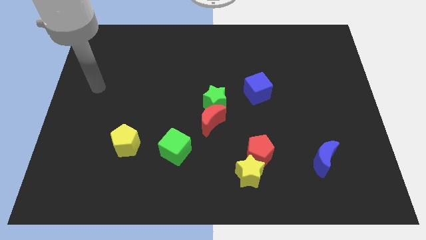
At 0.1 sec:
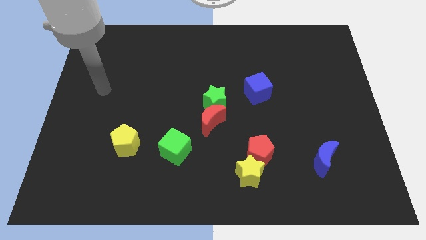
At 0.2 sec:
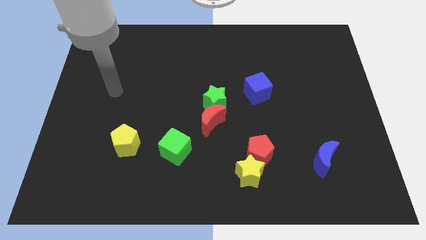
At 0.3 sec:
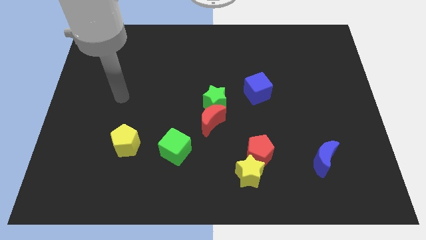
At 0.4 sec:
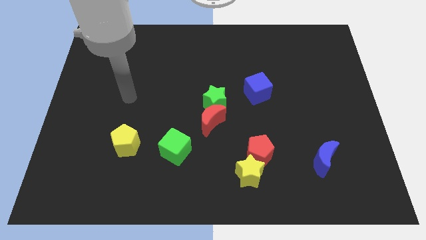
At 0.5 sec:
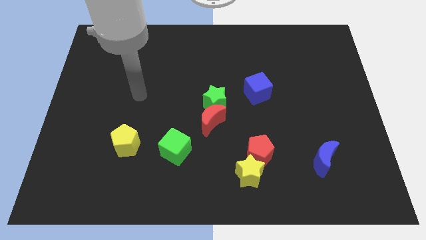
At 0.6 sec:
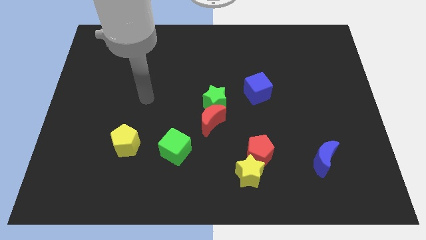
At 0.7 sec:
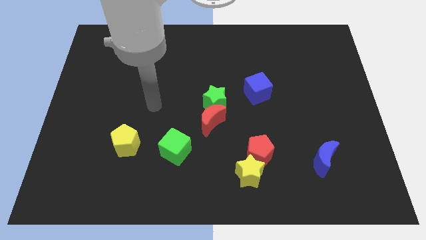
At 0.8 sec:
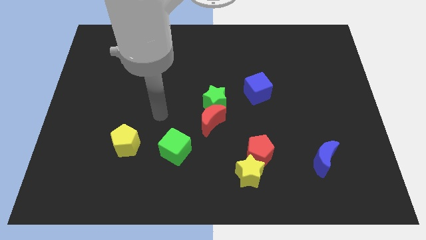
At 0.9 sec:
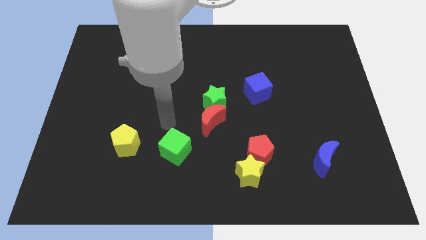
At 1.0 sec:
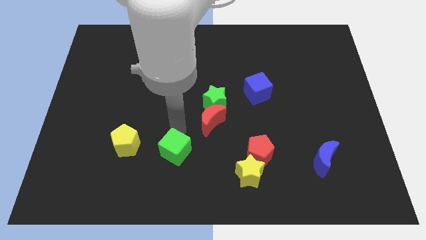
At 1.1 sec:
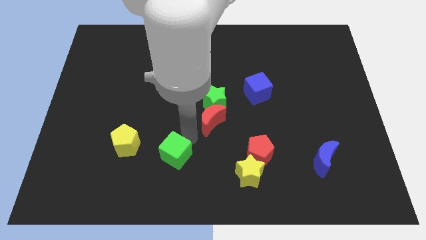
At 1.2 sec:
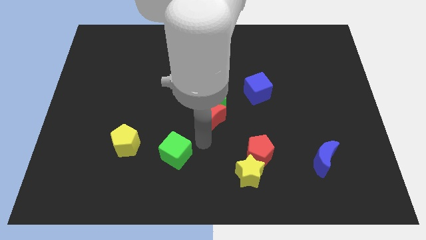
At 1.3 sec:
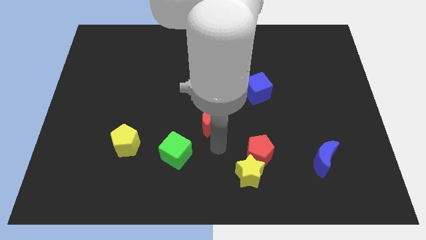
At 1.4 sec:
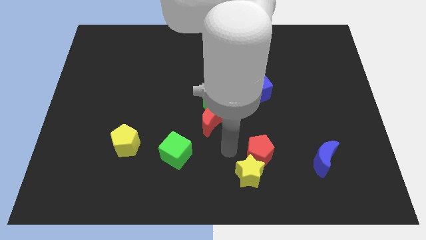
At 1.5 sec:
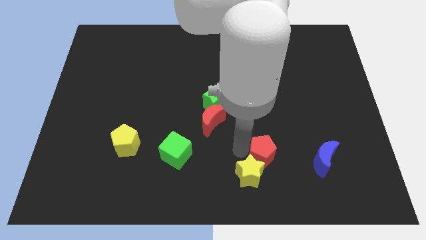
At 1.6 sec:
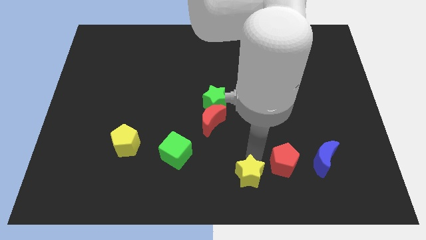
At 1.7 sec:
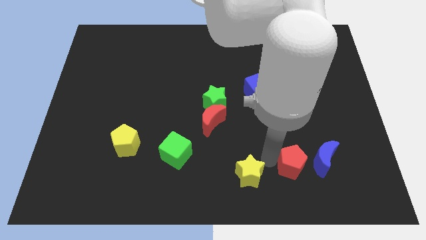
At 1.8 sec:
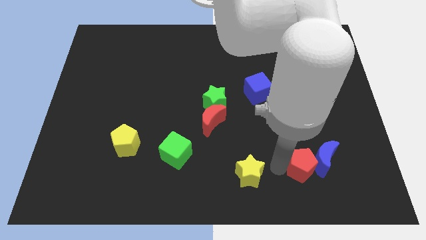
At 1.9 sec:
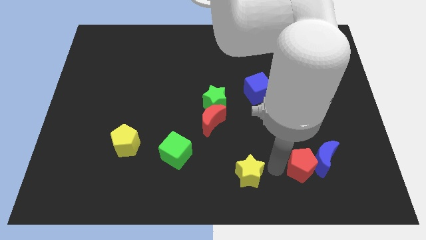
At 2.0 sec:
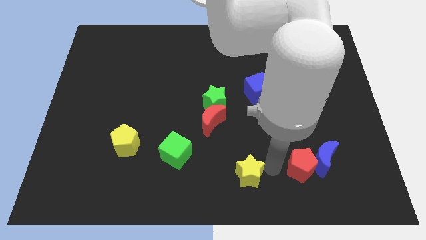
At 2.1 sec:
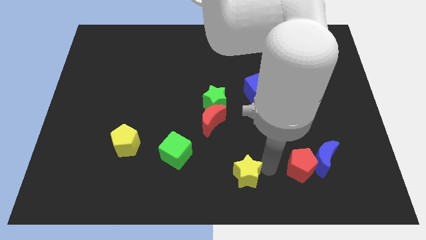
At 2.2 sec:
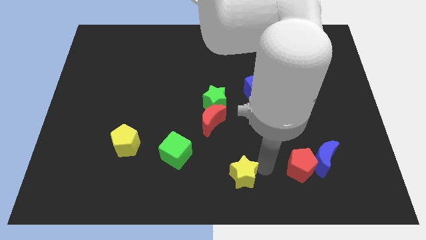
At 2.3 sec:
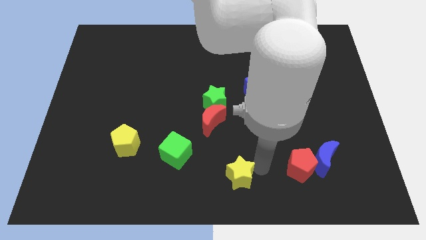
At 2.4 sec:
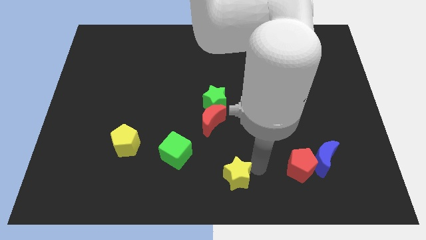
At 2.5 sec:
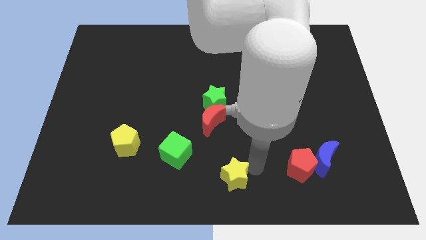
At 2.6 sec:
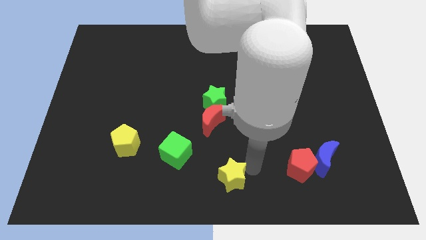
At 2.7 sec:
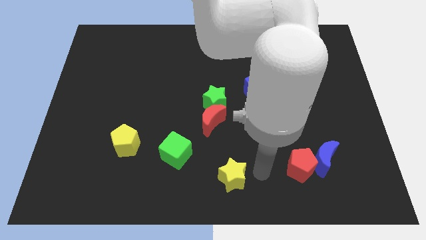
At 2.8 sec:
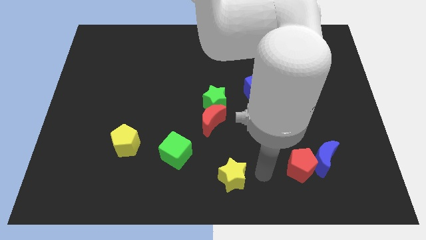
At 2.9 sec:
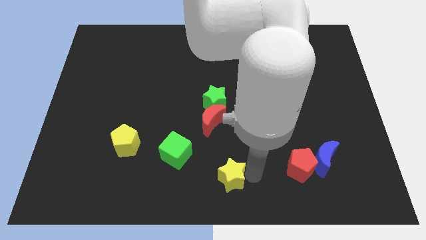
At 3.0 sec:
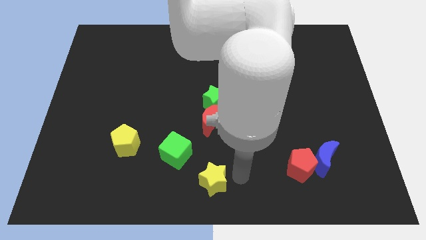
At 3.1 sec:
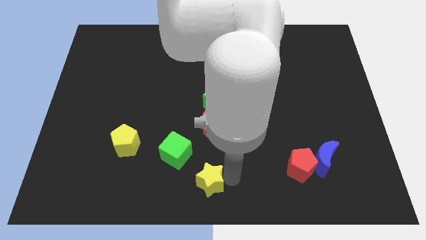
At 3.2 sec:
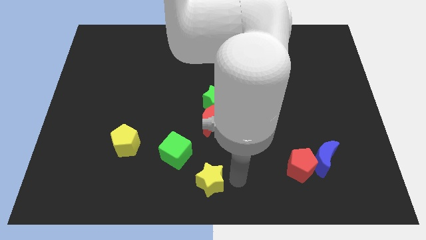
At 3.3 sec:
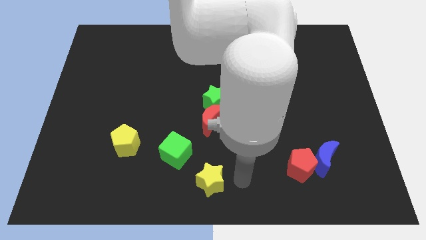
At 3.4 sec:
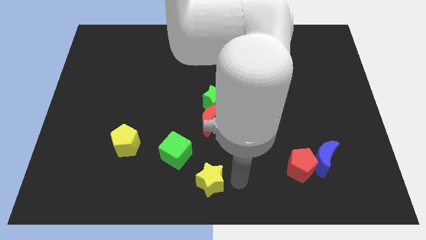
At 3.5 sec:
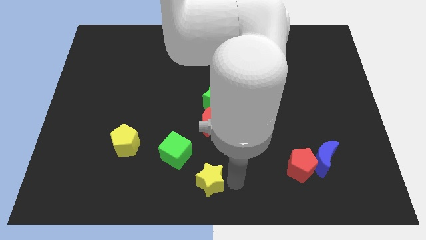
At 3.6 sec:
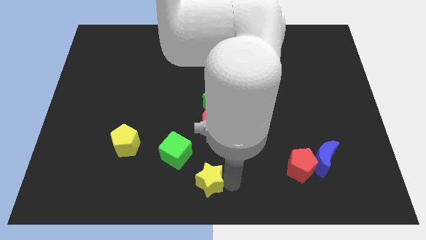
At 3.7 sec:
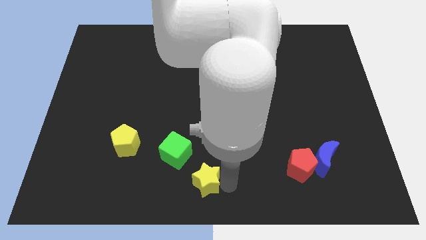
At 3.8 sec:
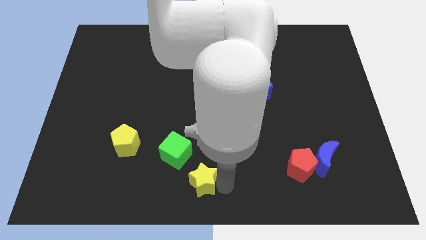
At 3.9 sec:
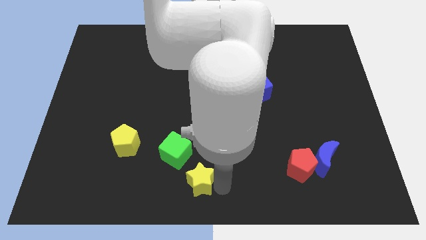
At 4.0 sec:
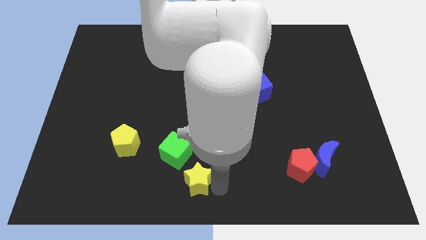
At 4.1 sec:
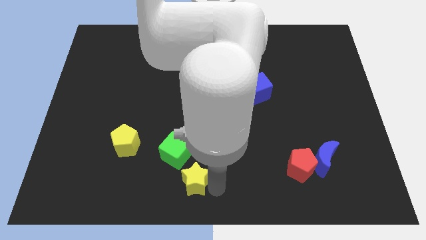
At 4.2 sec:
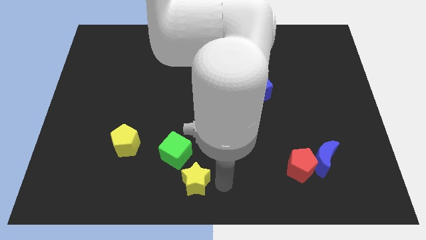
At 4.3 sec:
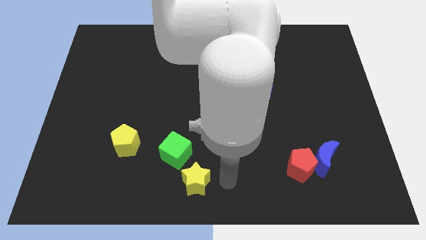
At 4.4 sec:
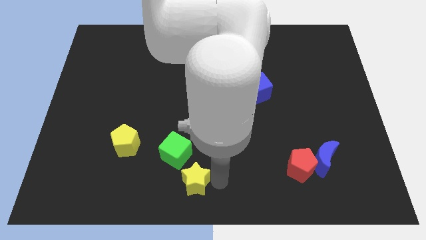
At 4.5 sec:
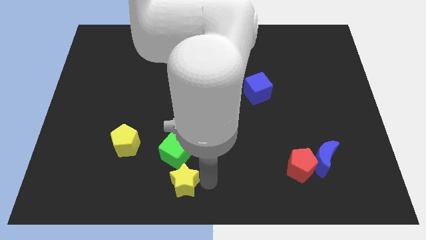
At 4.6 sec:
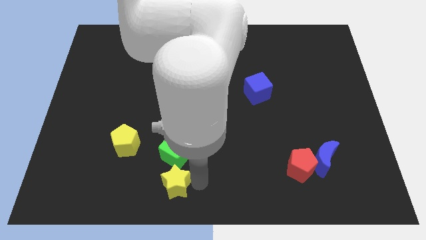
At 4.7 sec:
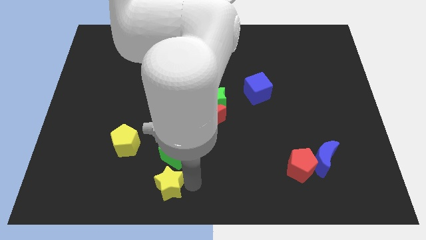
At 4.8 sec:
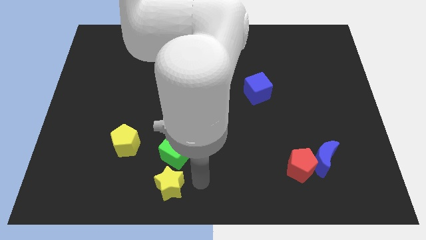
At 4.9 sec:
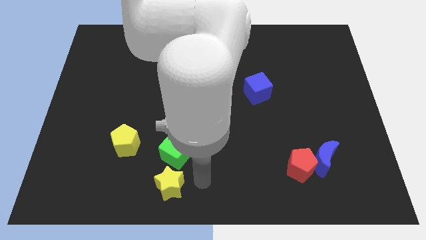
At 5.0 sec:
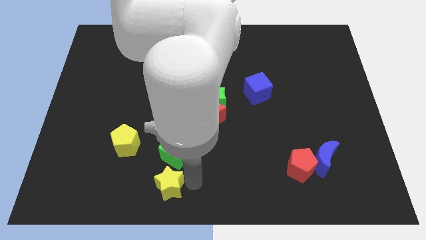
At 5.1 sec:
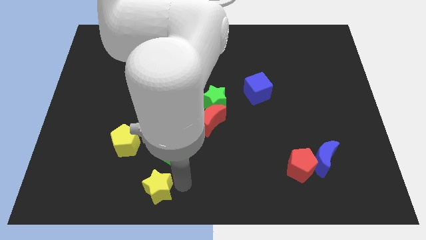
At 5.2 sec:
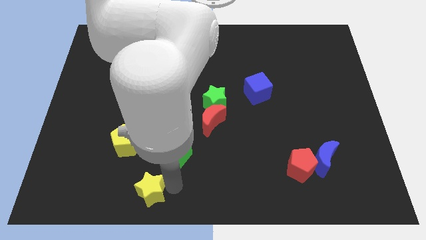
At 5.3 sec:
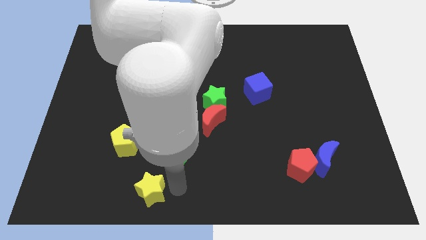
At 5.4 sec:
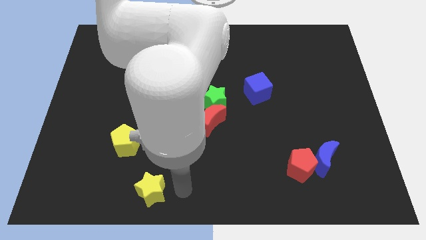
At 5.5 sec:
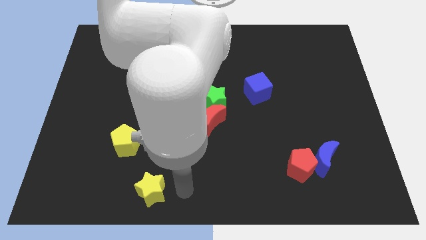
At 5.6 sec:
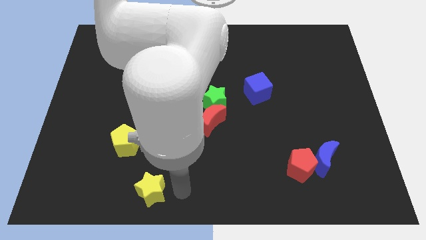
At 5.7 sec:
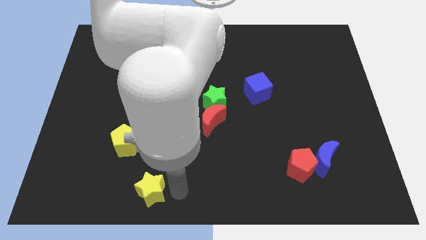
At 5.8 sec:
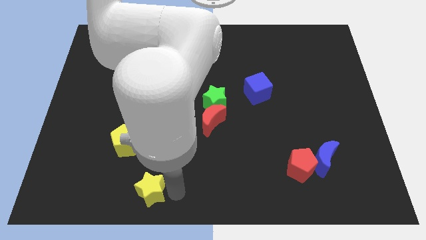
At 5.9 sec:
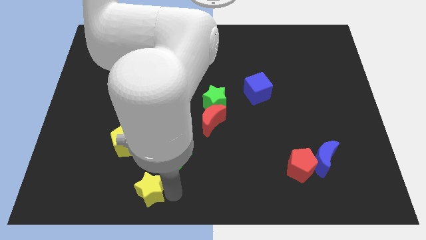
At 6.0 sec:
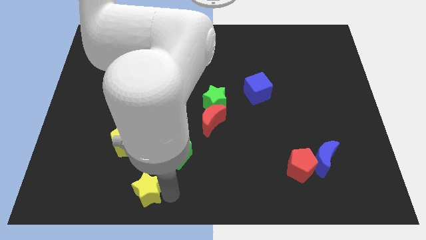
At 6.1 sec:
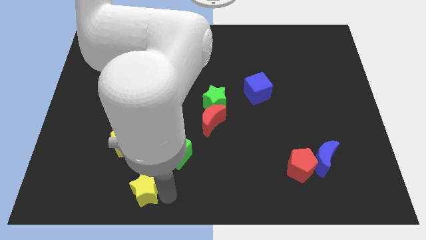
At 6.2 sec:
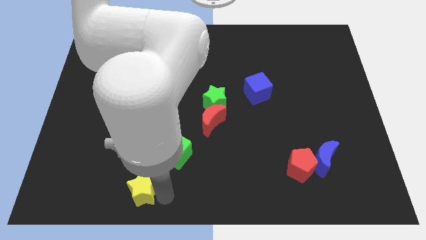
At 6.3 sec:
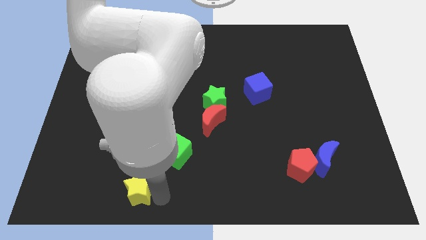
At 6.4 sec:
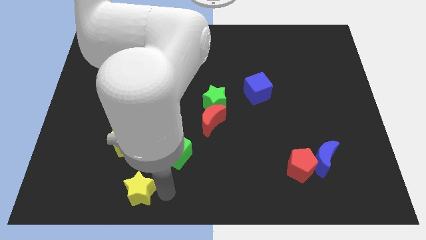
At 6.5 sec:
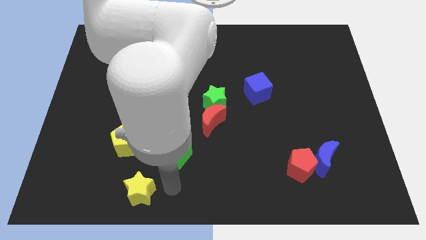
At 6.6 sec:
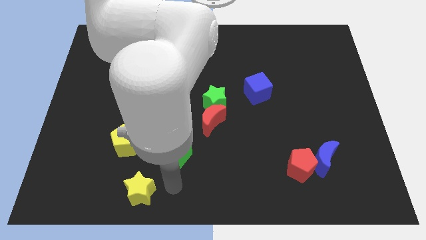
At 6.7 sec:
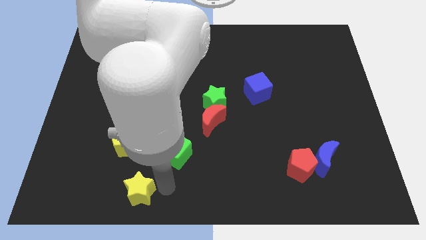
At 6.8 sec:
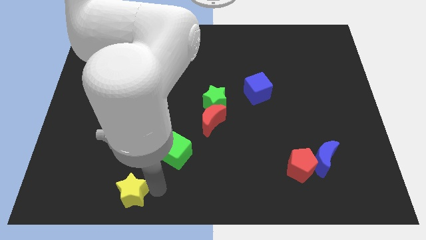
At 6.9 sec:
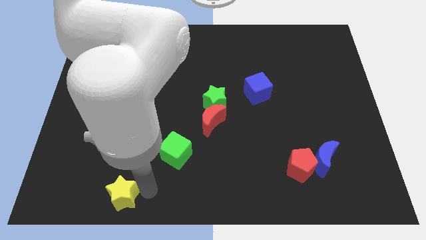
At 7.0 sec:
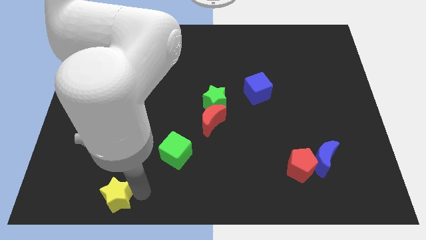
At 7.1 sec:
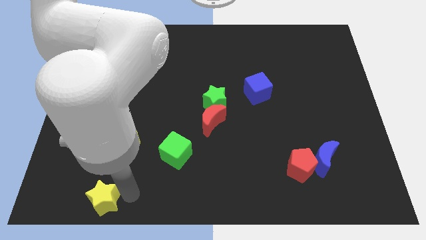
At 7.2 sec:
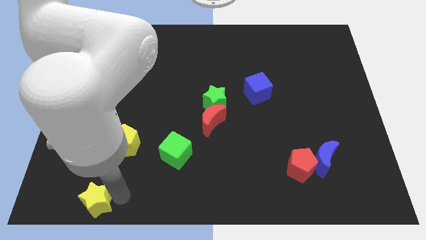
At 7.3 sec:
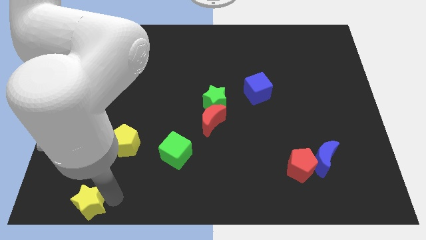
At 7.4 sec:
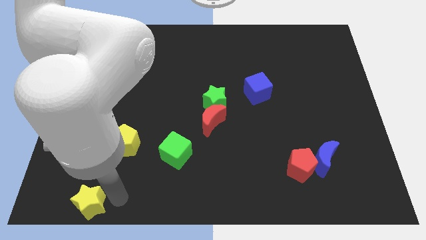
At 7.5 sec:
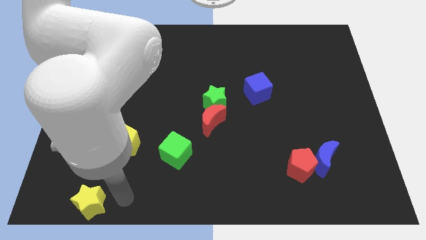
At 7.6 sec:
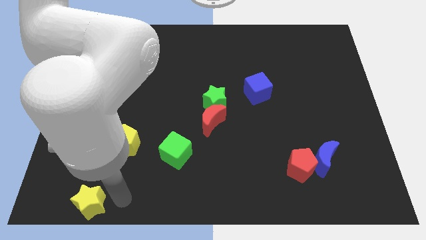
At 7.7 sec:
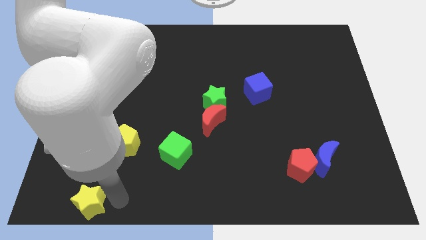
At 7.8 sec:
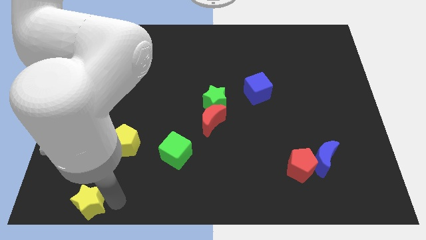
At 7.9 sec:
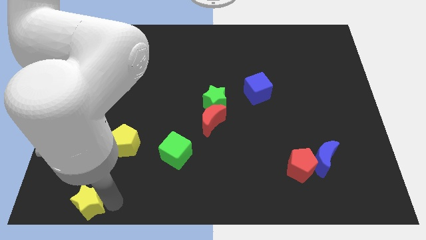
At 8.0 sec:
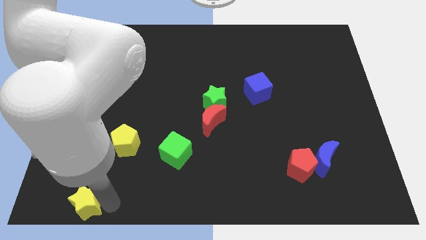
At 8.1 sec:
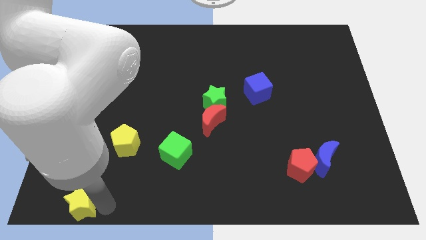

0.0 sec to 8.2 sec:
slide the yellow star to the lower left corner
